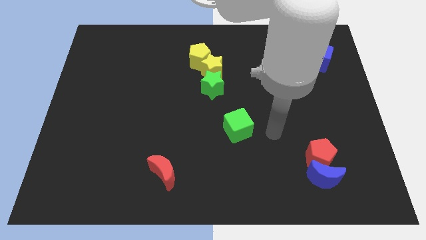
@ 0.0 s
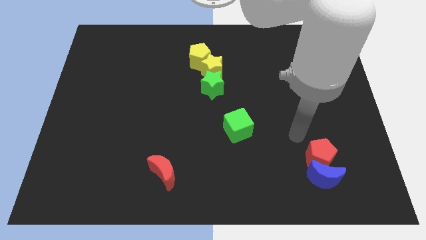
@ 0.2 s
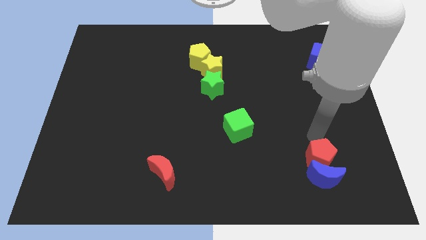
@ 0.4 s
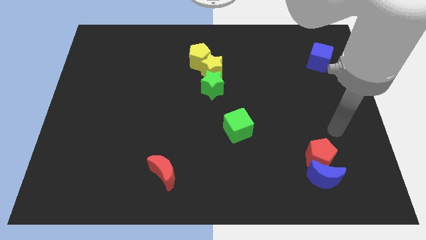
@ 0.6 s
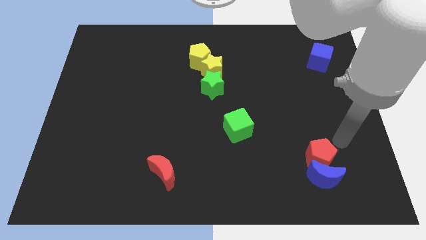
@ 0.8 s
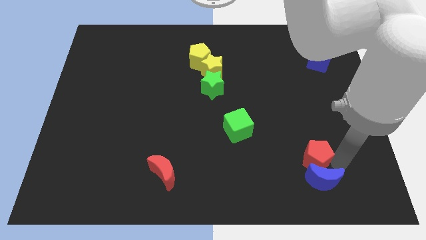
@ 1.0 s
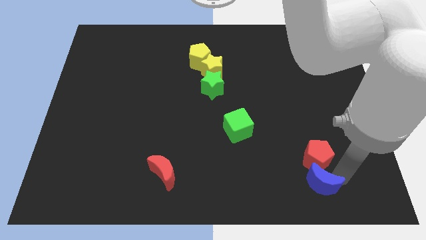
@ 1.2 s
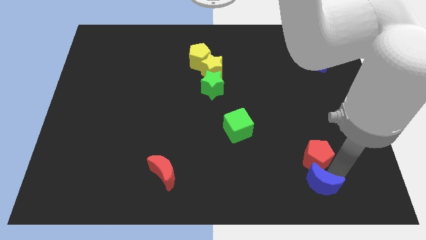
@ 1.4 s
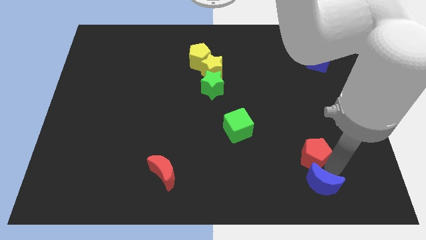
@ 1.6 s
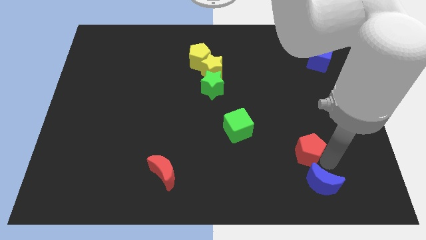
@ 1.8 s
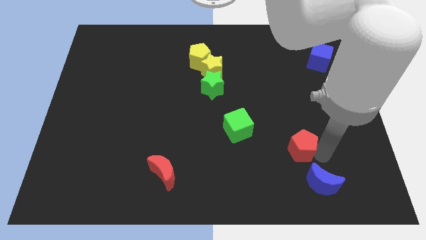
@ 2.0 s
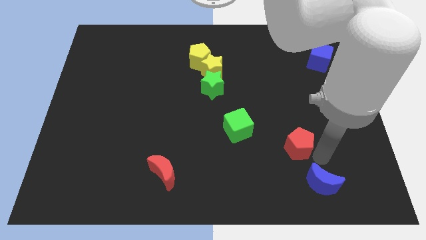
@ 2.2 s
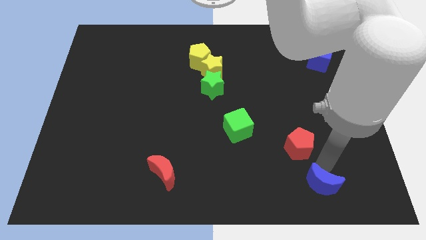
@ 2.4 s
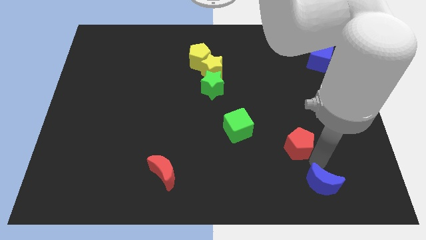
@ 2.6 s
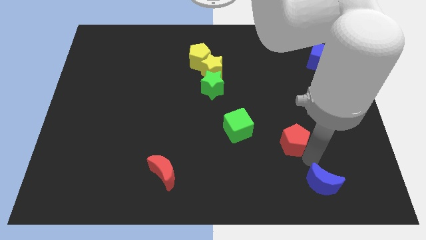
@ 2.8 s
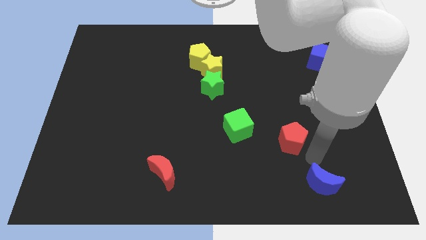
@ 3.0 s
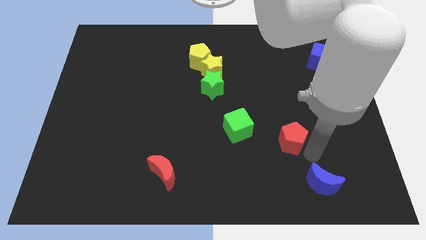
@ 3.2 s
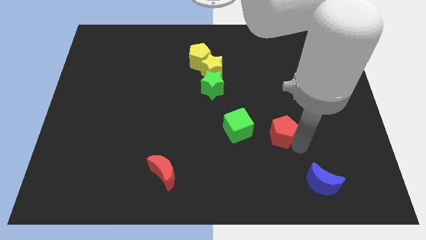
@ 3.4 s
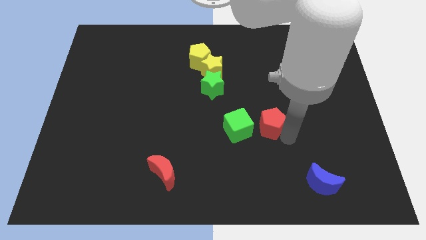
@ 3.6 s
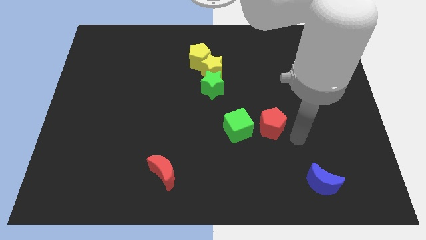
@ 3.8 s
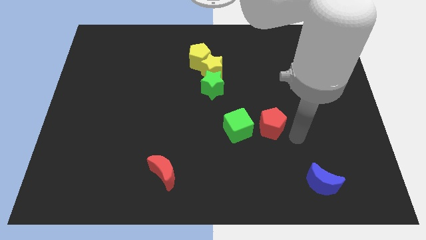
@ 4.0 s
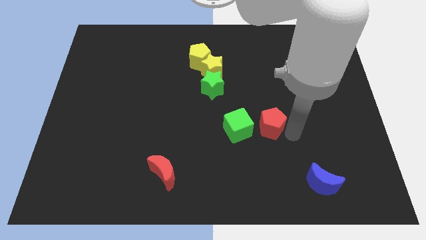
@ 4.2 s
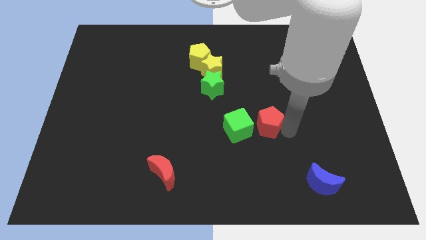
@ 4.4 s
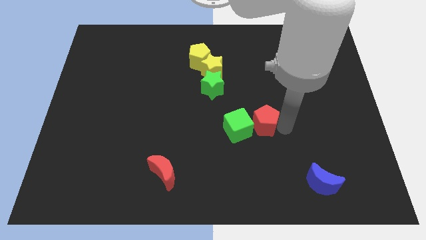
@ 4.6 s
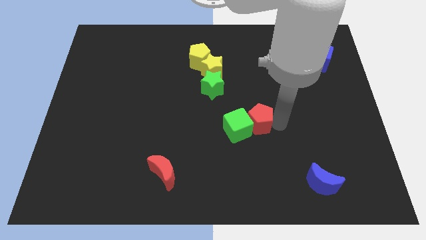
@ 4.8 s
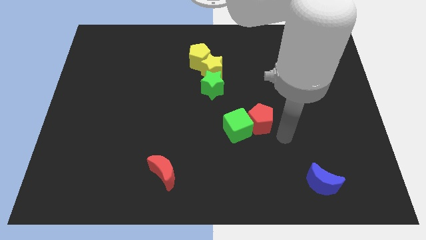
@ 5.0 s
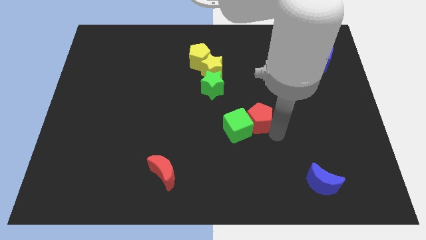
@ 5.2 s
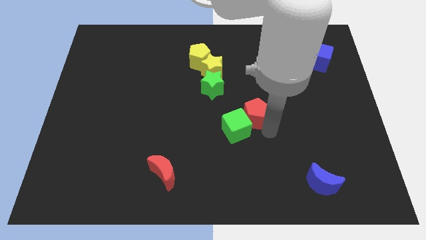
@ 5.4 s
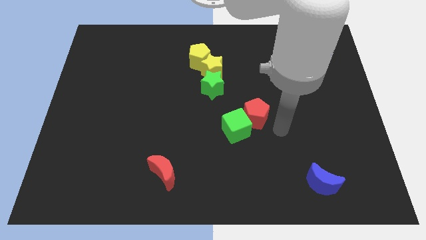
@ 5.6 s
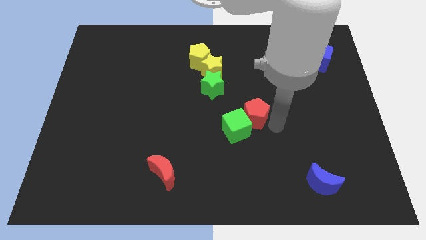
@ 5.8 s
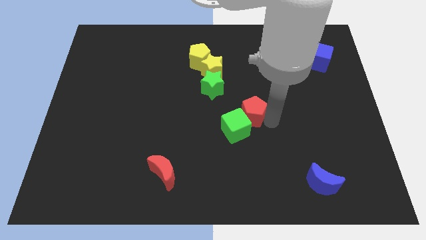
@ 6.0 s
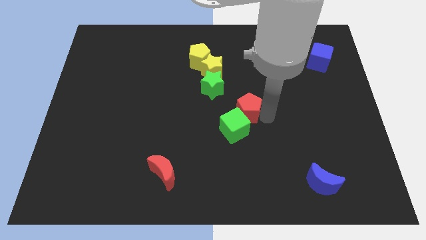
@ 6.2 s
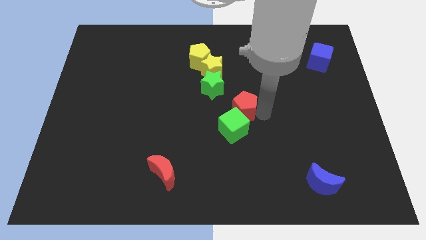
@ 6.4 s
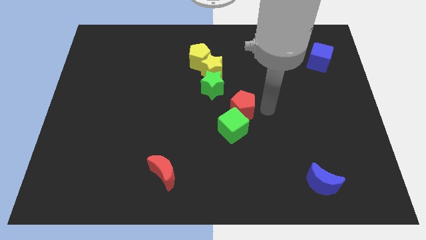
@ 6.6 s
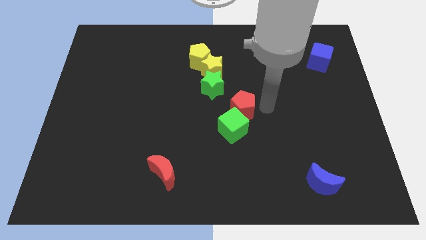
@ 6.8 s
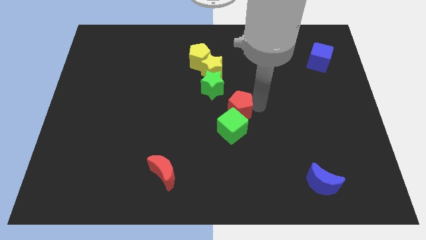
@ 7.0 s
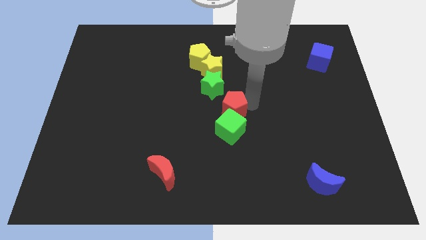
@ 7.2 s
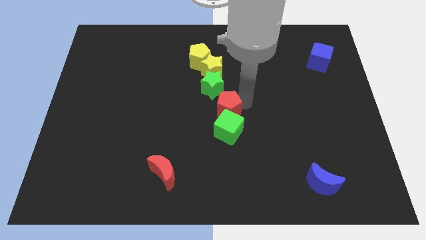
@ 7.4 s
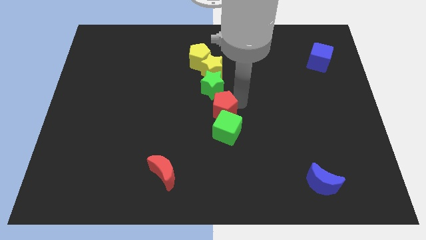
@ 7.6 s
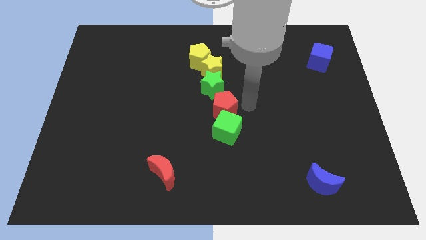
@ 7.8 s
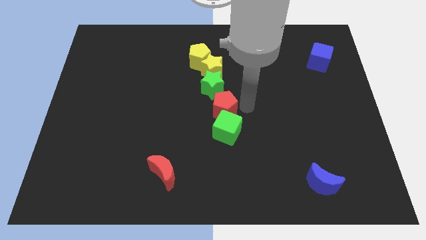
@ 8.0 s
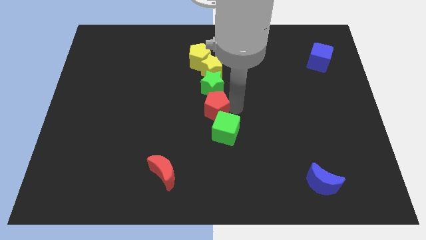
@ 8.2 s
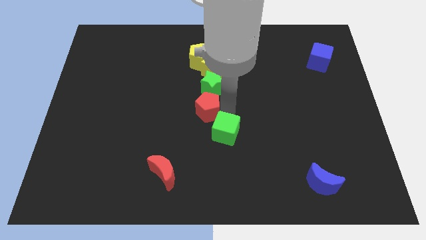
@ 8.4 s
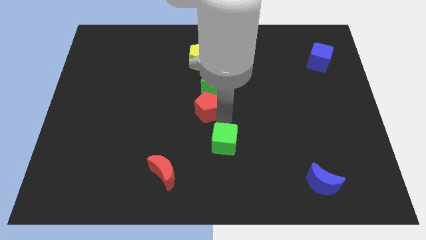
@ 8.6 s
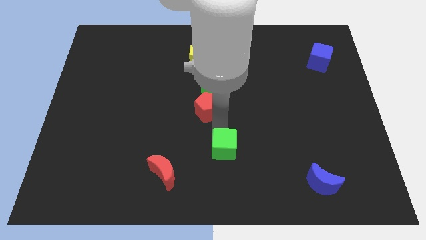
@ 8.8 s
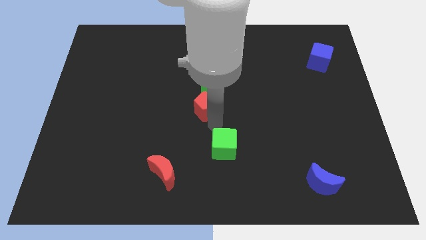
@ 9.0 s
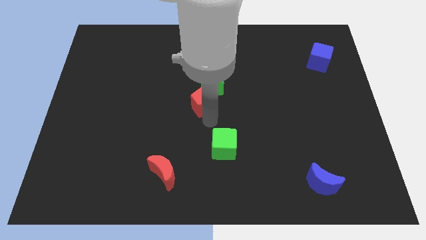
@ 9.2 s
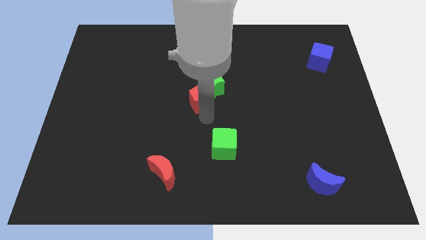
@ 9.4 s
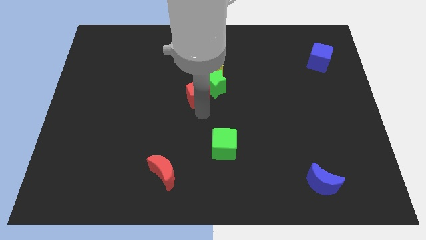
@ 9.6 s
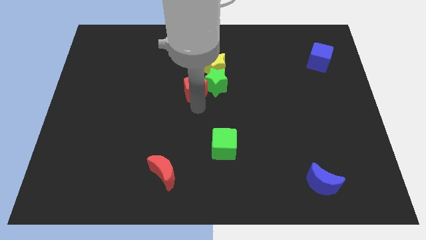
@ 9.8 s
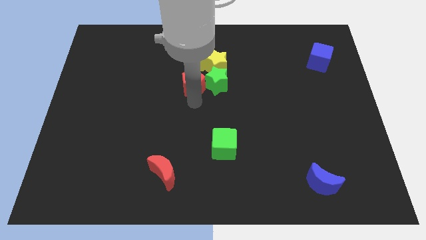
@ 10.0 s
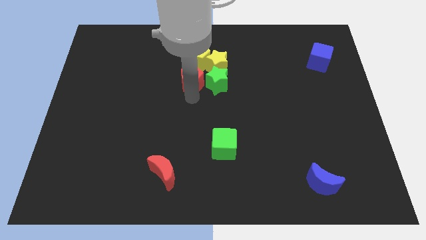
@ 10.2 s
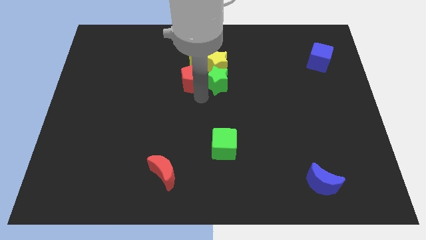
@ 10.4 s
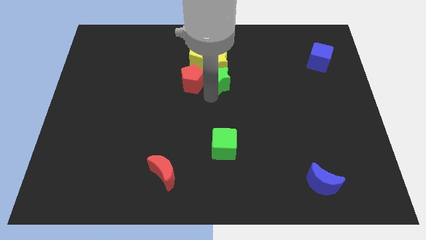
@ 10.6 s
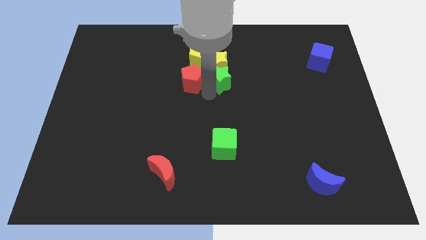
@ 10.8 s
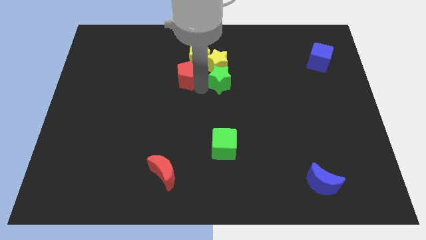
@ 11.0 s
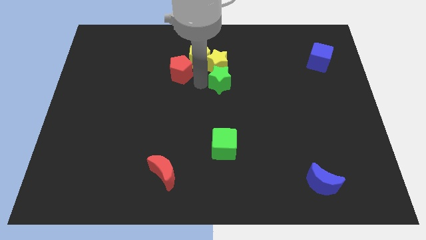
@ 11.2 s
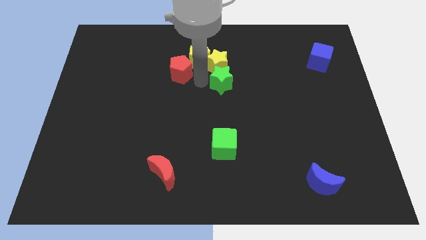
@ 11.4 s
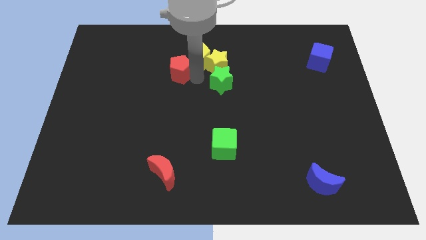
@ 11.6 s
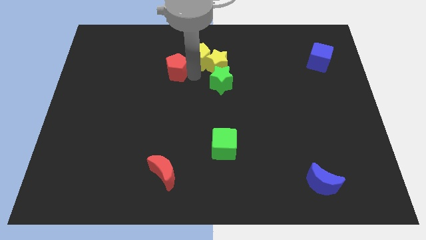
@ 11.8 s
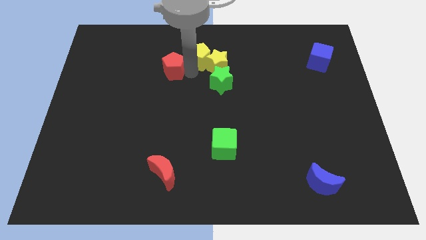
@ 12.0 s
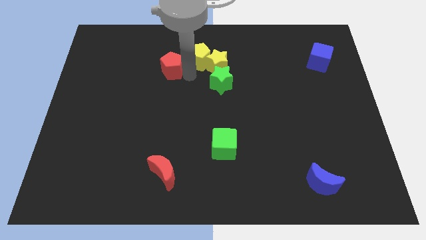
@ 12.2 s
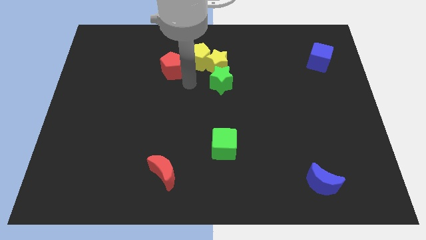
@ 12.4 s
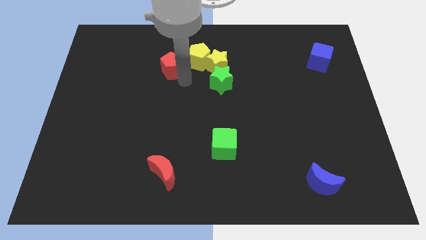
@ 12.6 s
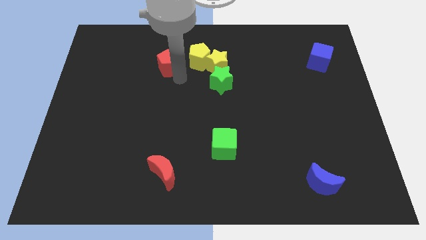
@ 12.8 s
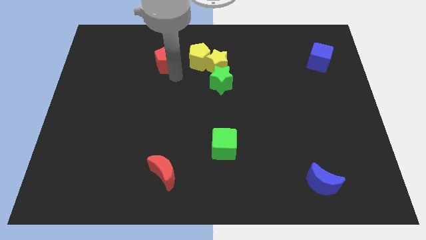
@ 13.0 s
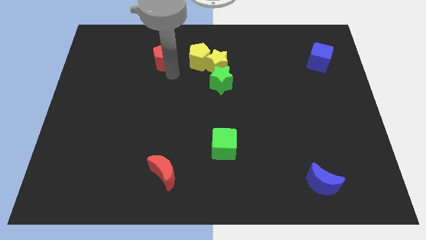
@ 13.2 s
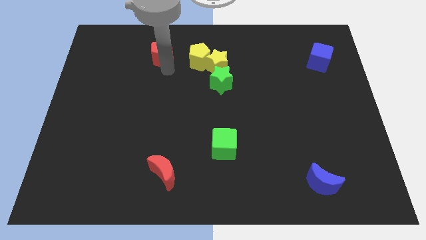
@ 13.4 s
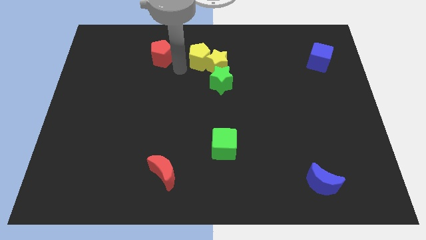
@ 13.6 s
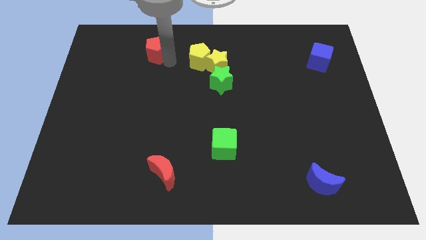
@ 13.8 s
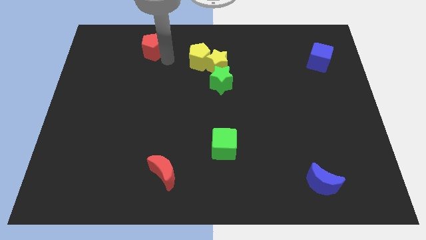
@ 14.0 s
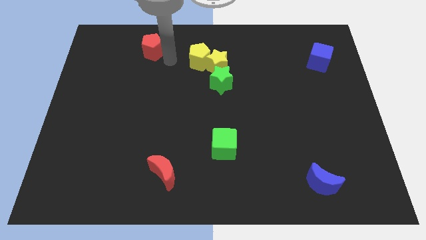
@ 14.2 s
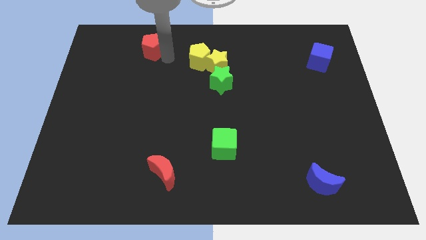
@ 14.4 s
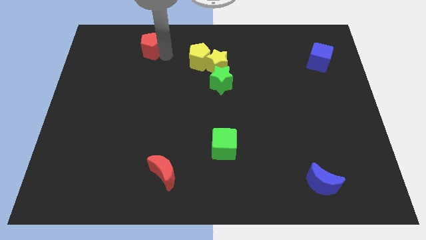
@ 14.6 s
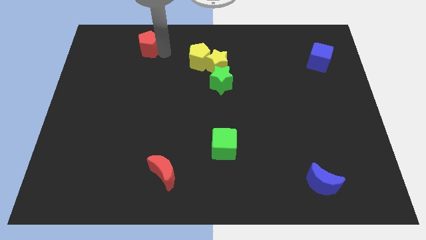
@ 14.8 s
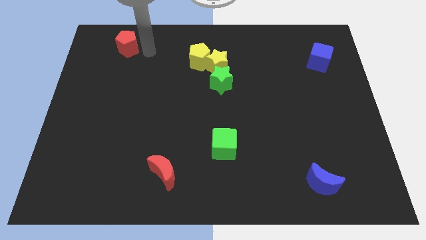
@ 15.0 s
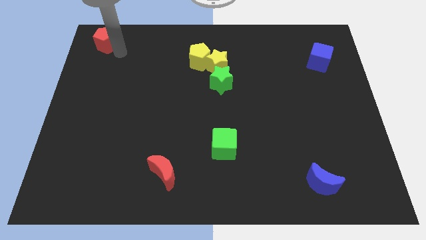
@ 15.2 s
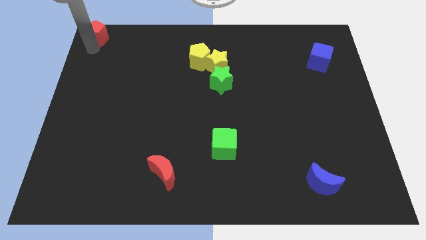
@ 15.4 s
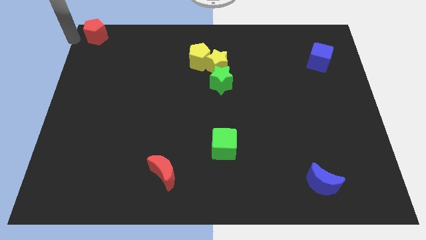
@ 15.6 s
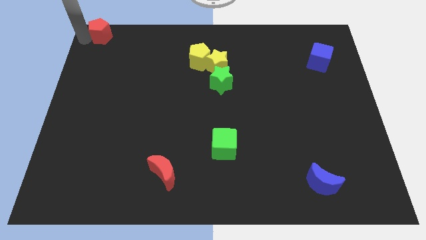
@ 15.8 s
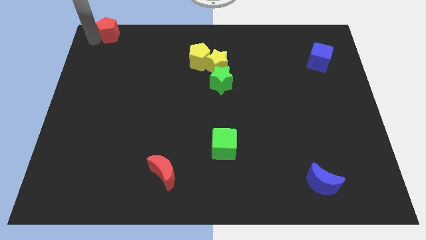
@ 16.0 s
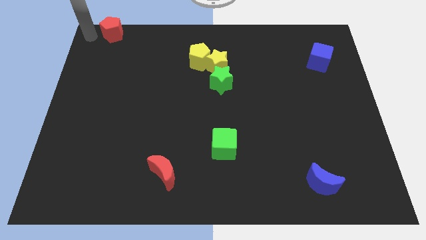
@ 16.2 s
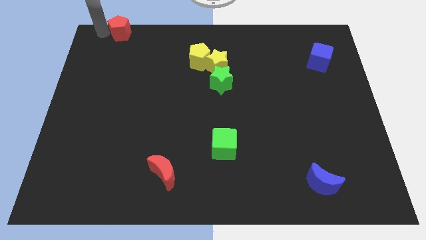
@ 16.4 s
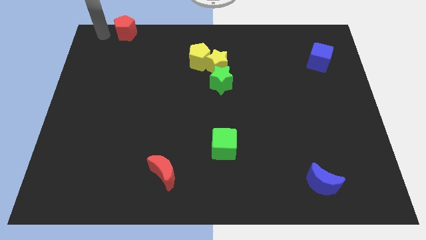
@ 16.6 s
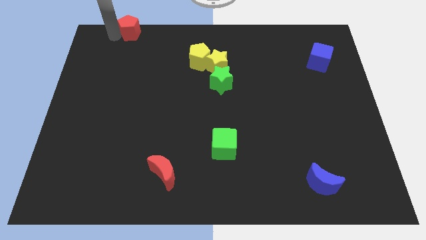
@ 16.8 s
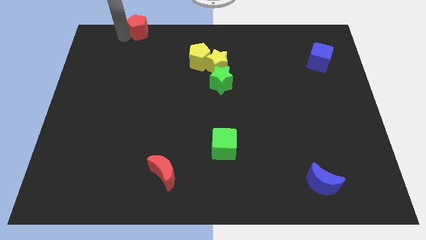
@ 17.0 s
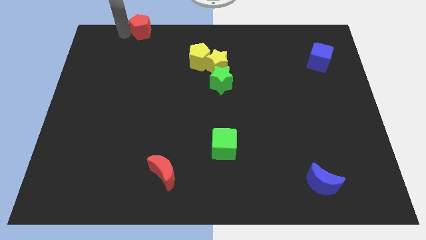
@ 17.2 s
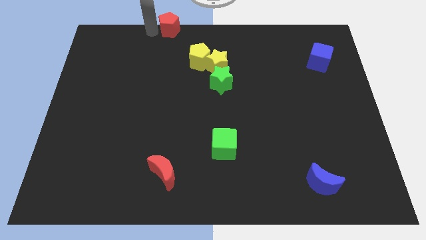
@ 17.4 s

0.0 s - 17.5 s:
put the red pentagon to the towards your base
